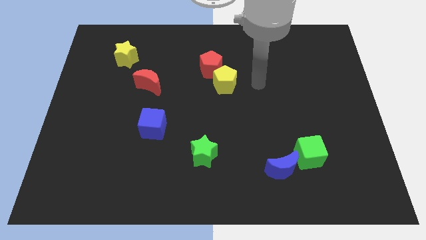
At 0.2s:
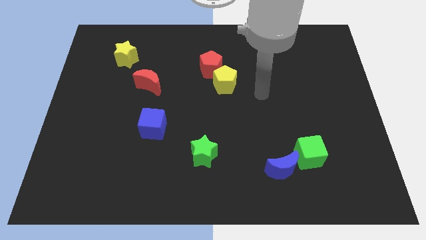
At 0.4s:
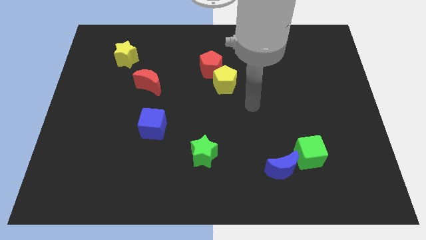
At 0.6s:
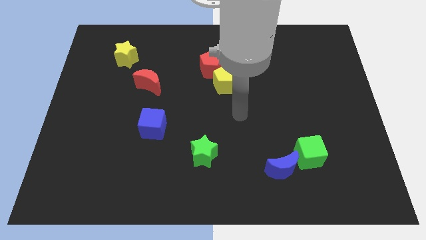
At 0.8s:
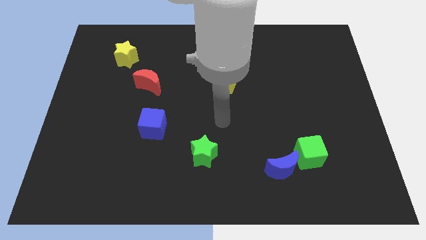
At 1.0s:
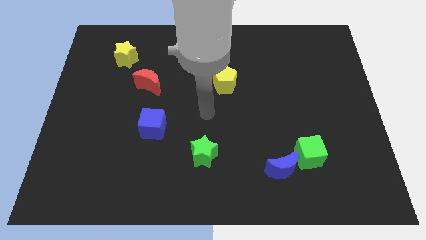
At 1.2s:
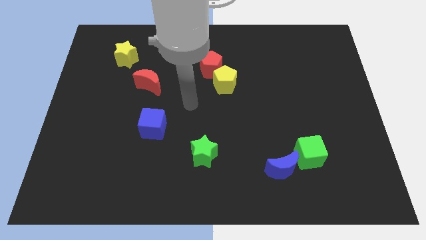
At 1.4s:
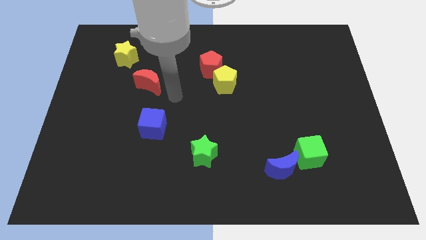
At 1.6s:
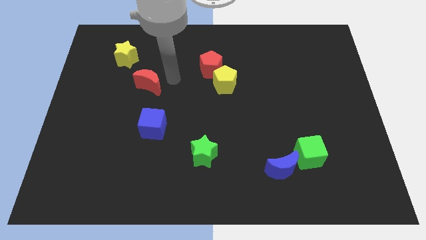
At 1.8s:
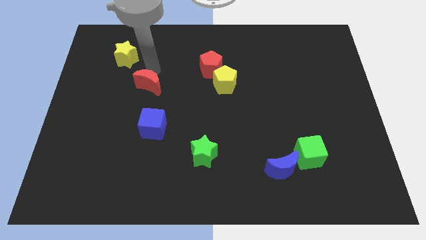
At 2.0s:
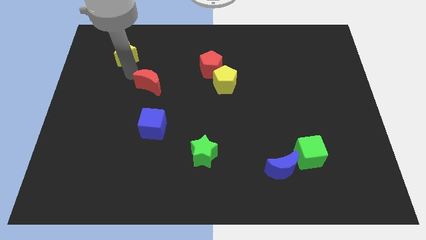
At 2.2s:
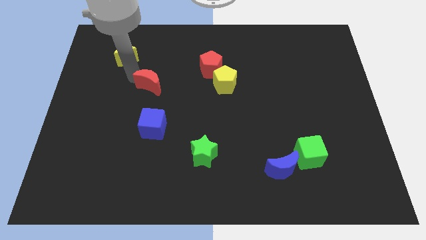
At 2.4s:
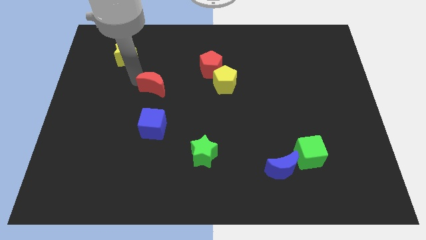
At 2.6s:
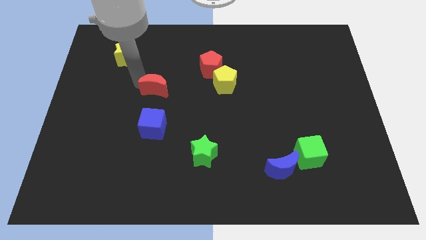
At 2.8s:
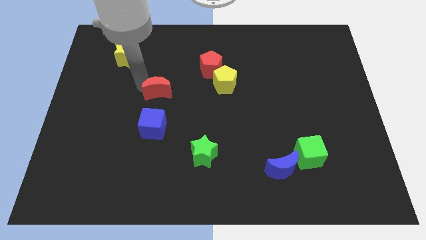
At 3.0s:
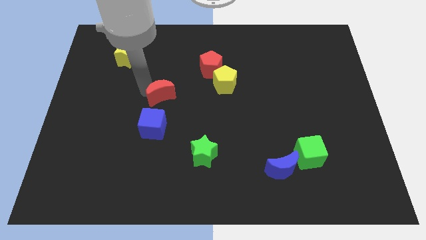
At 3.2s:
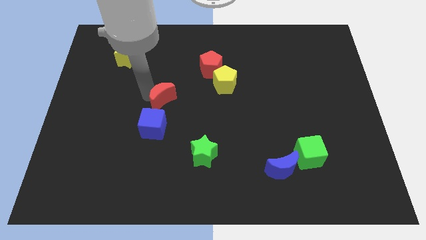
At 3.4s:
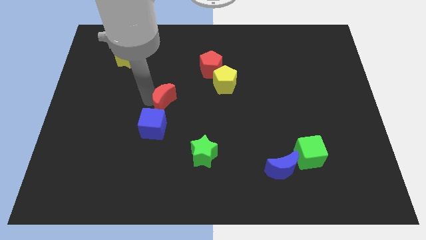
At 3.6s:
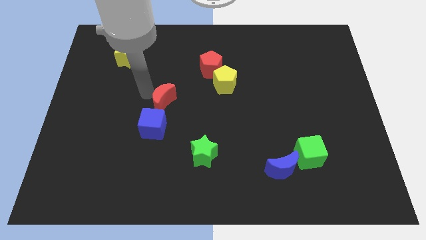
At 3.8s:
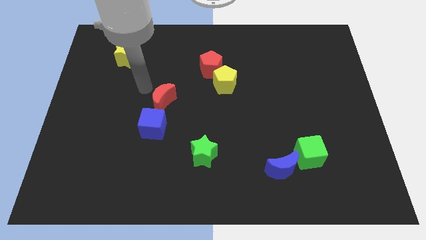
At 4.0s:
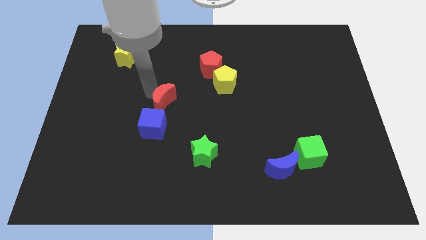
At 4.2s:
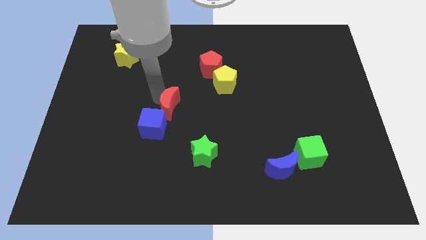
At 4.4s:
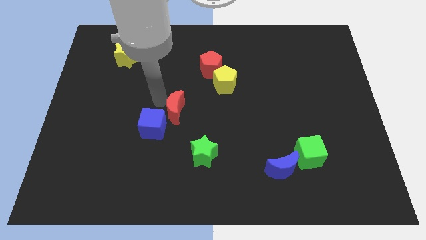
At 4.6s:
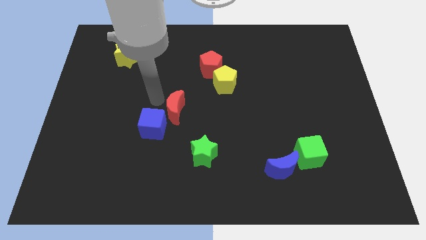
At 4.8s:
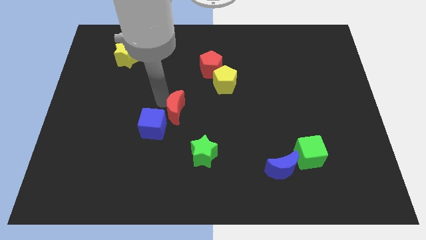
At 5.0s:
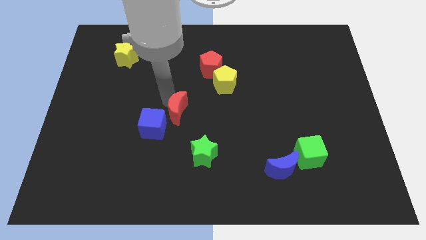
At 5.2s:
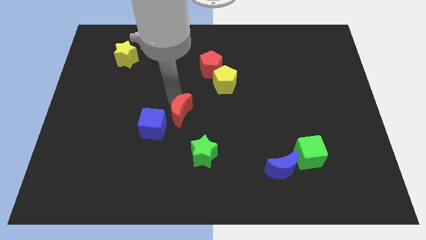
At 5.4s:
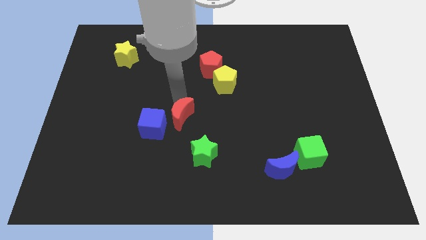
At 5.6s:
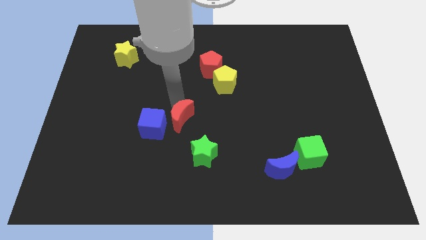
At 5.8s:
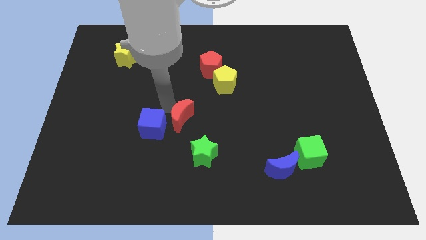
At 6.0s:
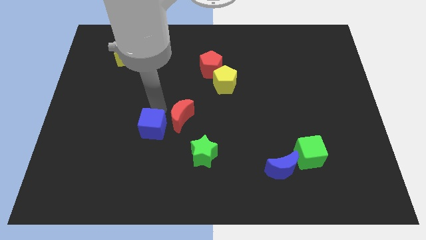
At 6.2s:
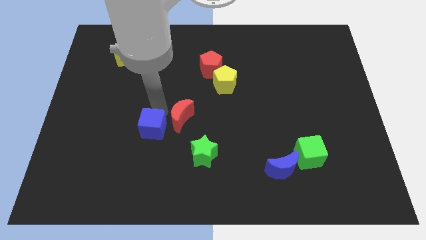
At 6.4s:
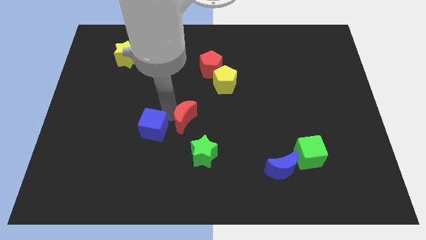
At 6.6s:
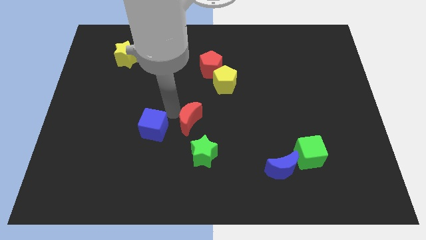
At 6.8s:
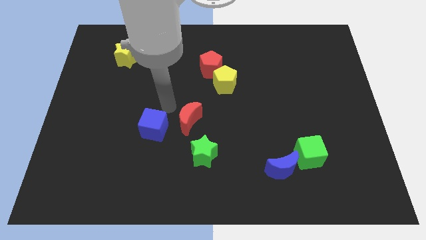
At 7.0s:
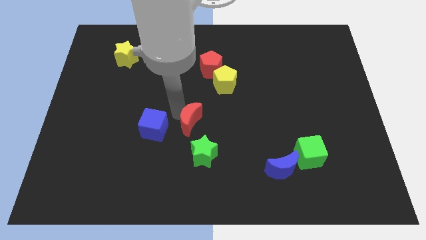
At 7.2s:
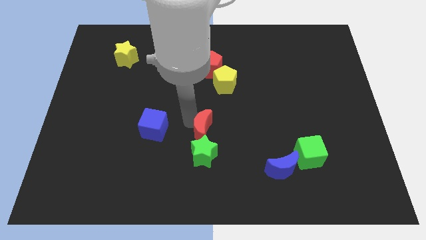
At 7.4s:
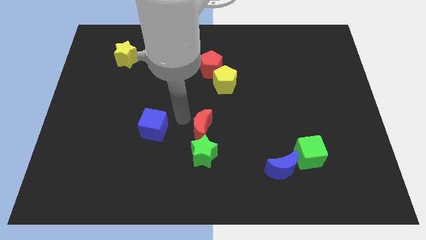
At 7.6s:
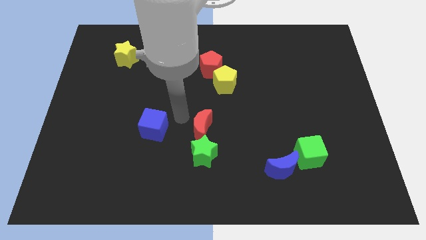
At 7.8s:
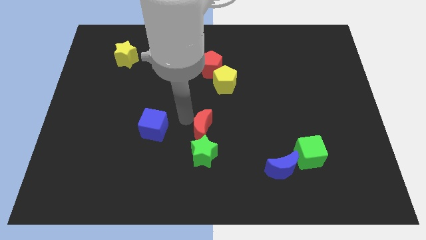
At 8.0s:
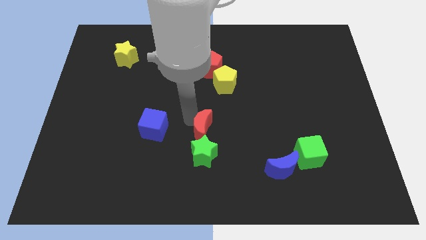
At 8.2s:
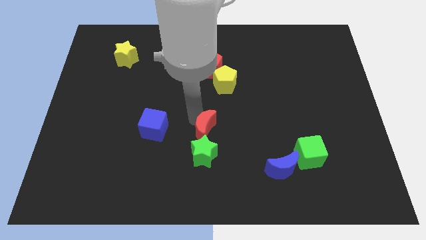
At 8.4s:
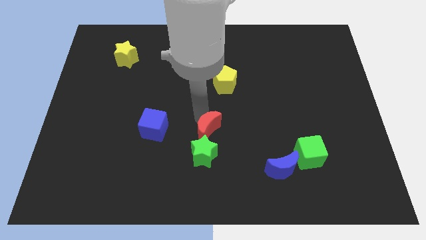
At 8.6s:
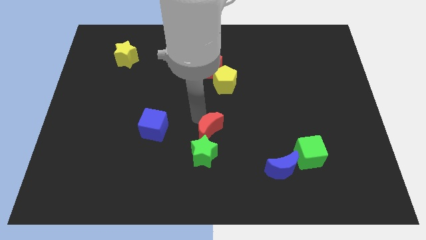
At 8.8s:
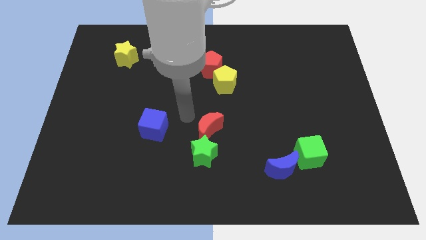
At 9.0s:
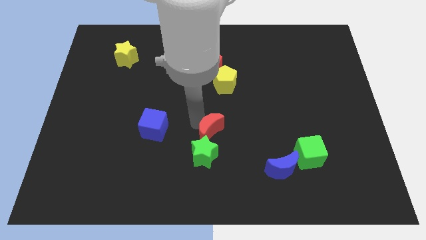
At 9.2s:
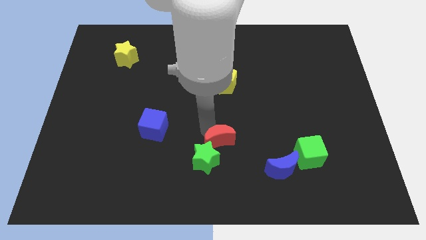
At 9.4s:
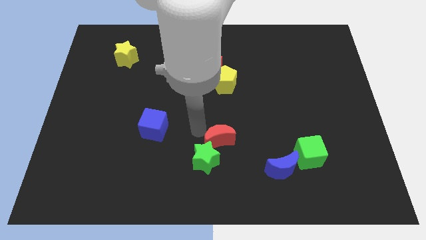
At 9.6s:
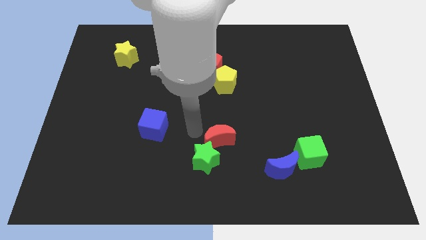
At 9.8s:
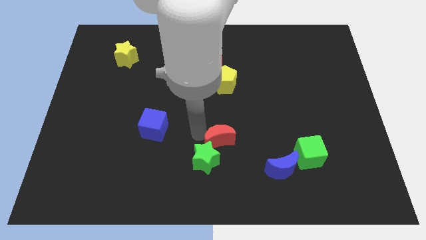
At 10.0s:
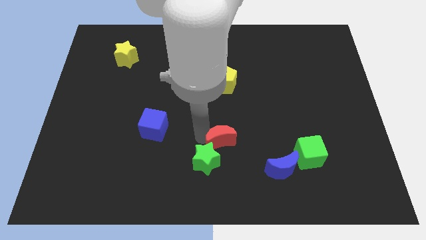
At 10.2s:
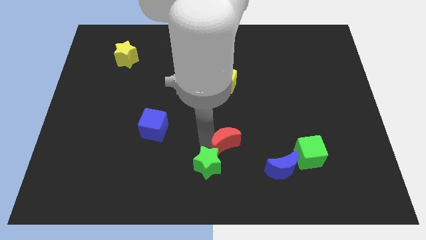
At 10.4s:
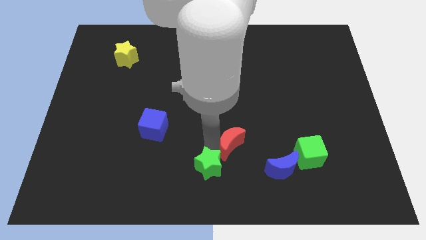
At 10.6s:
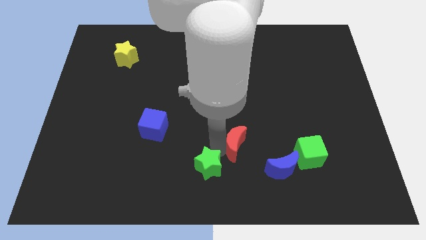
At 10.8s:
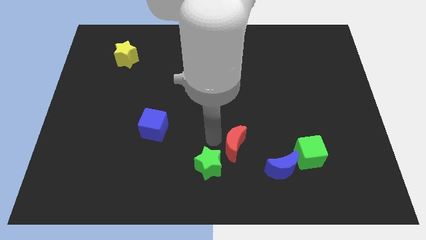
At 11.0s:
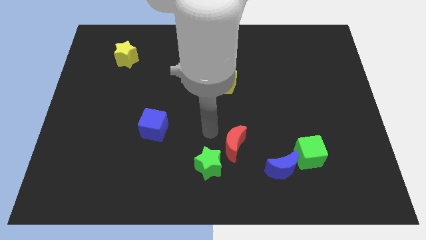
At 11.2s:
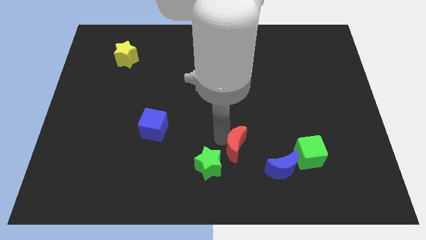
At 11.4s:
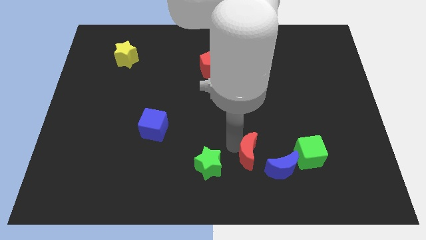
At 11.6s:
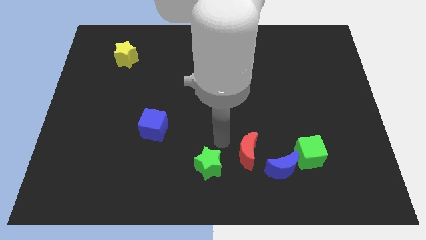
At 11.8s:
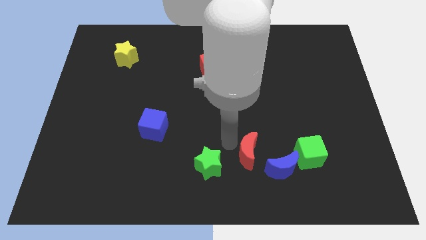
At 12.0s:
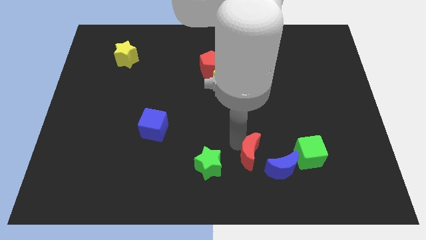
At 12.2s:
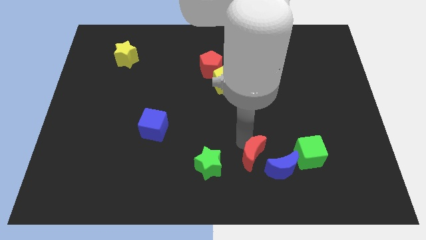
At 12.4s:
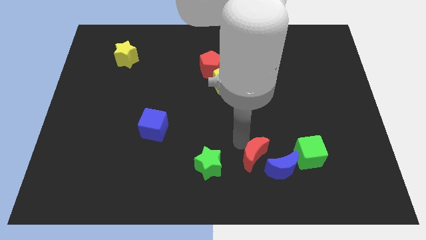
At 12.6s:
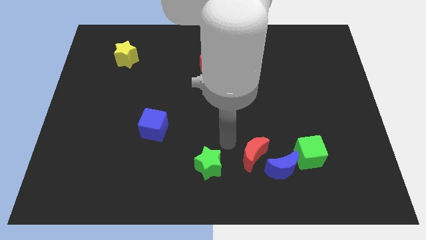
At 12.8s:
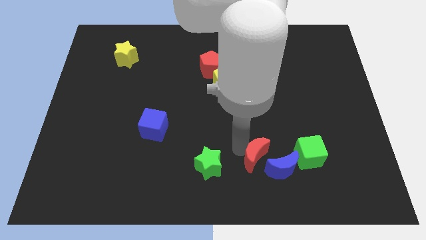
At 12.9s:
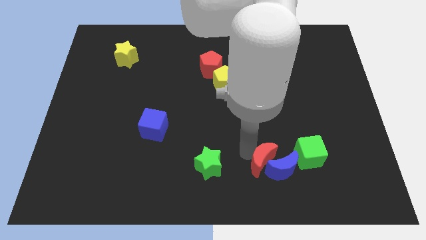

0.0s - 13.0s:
put the red moon to the blue moon
